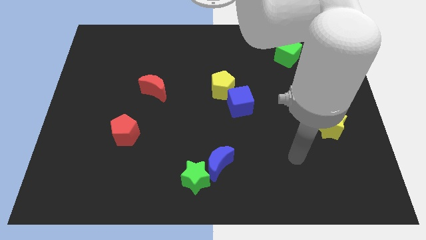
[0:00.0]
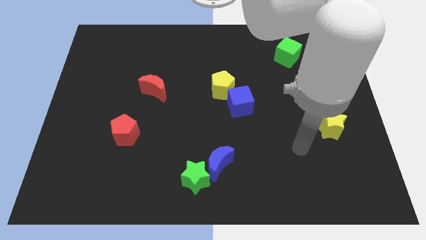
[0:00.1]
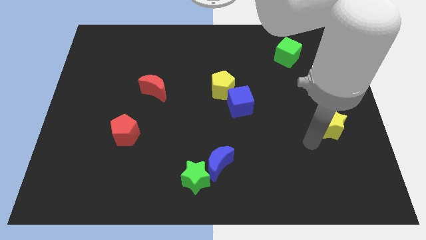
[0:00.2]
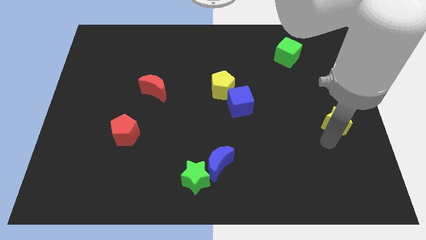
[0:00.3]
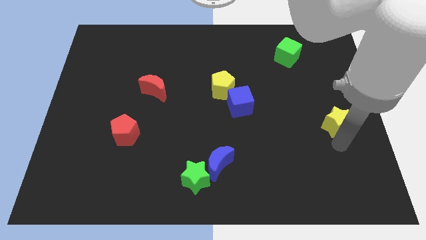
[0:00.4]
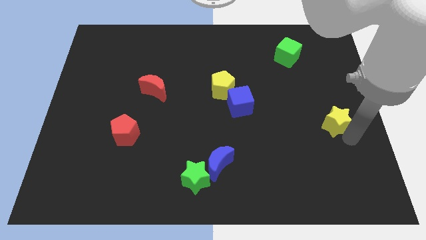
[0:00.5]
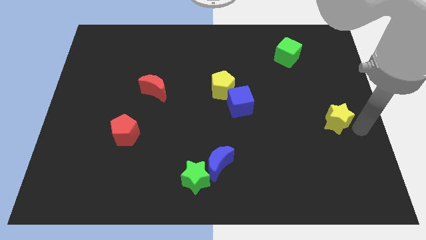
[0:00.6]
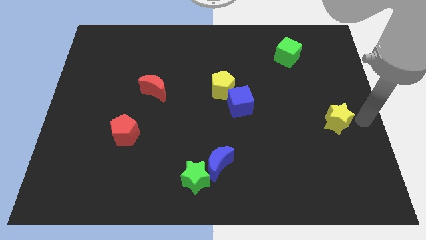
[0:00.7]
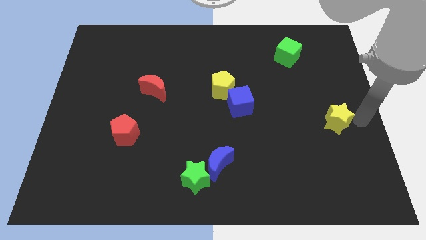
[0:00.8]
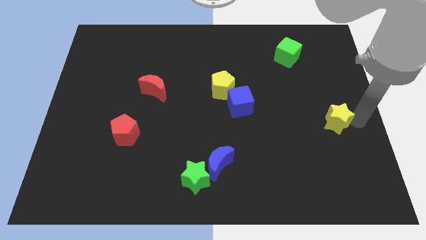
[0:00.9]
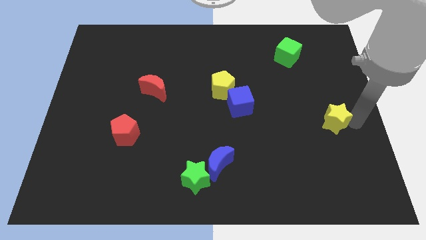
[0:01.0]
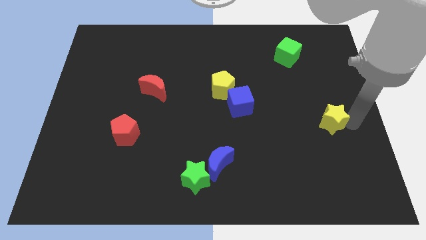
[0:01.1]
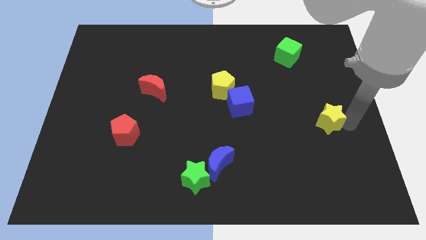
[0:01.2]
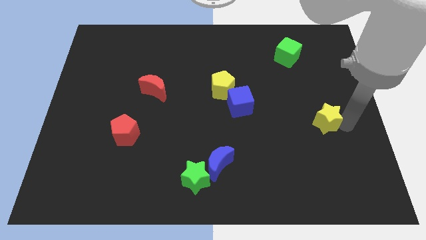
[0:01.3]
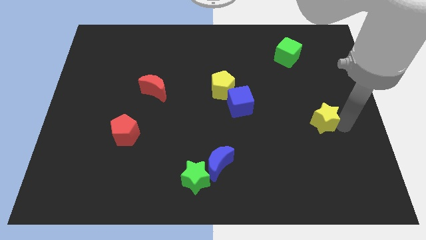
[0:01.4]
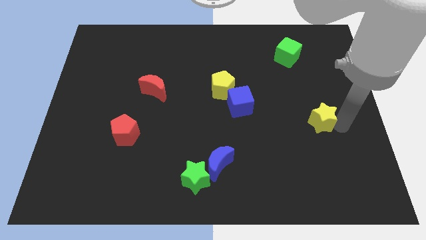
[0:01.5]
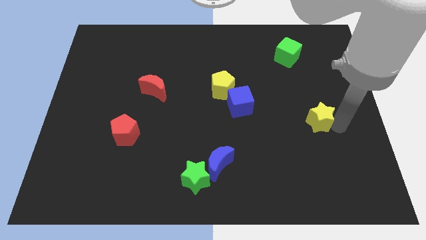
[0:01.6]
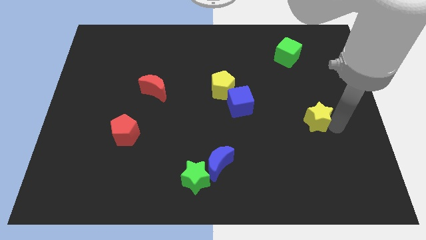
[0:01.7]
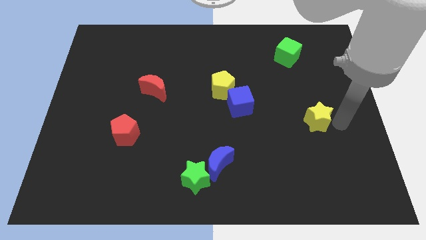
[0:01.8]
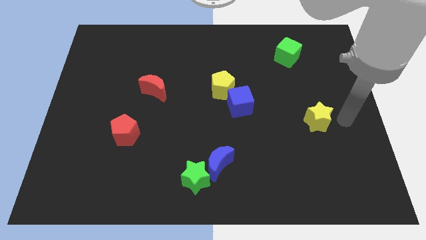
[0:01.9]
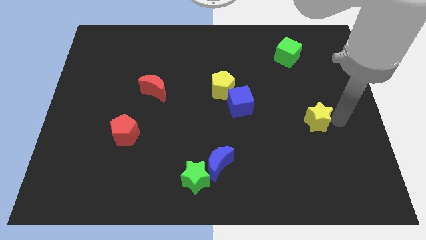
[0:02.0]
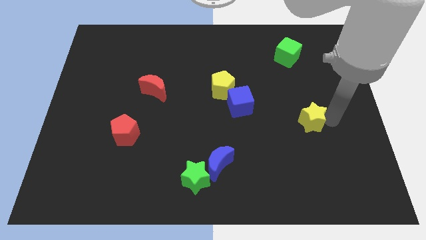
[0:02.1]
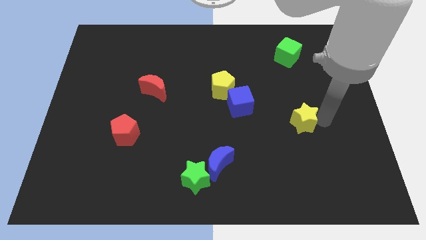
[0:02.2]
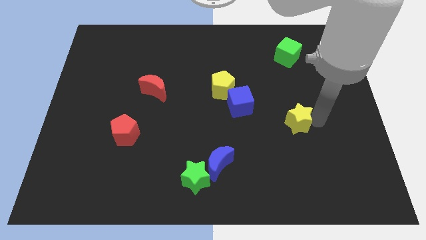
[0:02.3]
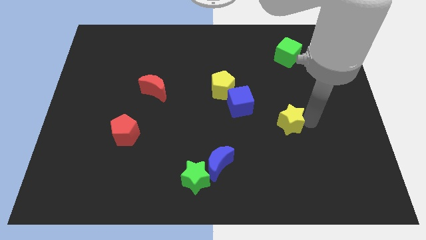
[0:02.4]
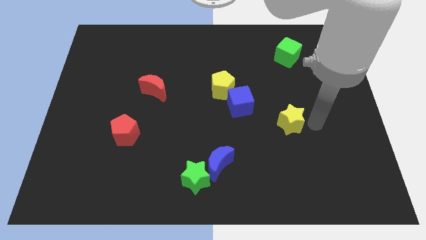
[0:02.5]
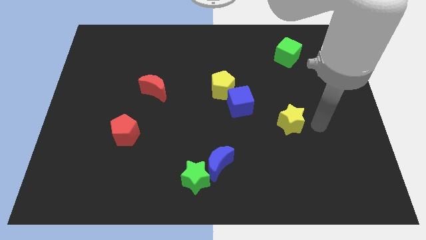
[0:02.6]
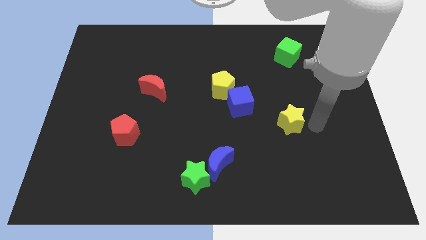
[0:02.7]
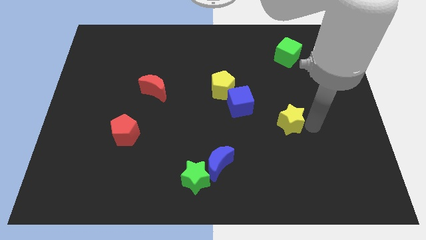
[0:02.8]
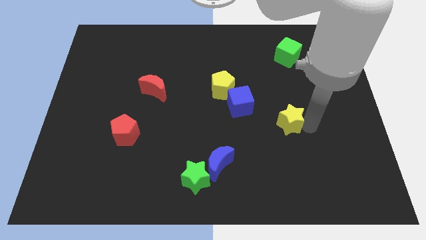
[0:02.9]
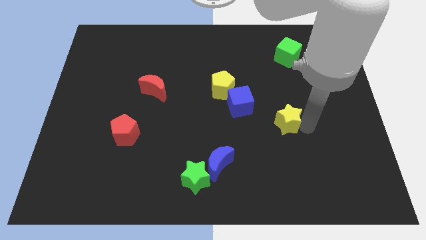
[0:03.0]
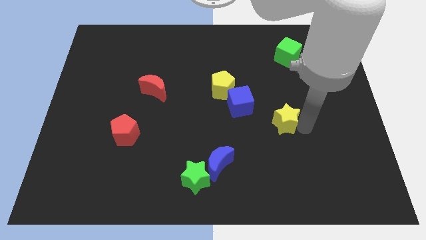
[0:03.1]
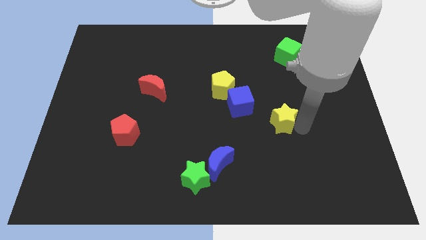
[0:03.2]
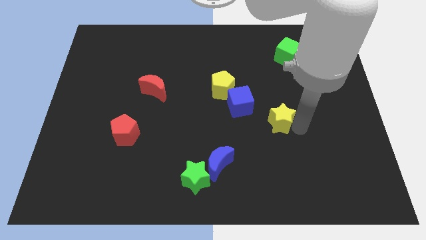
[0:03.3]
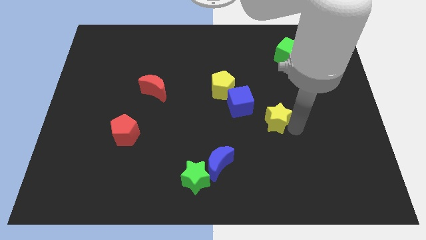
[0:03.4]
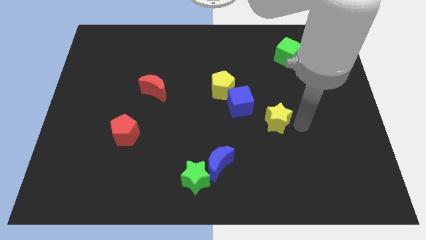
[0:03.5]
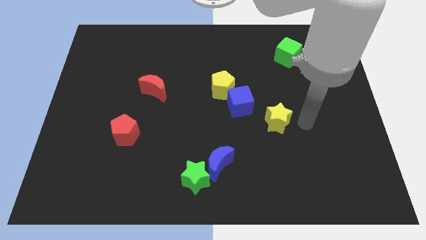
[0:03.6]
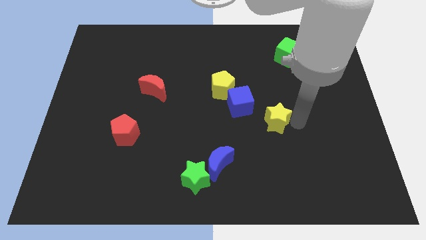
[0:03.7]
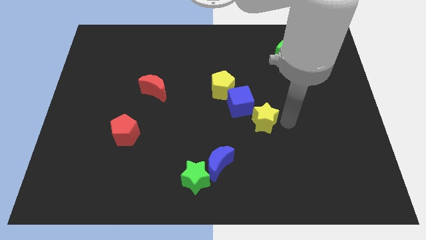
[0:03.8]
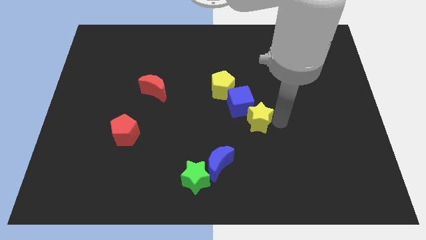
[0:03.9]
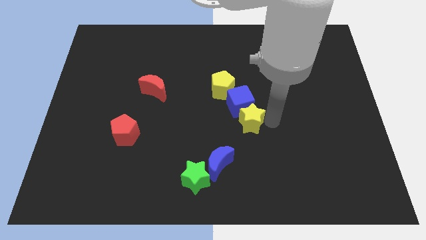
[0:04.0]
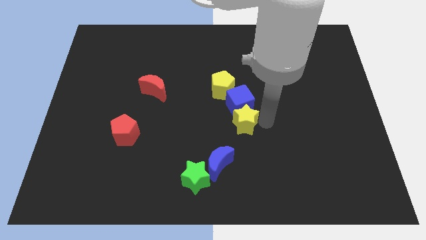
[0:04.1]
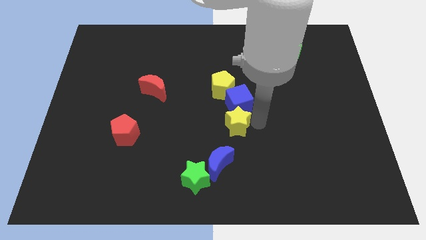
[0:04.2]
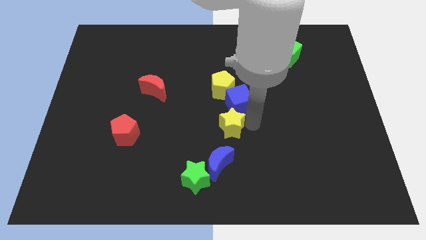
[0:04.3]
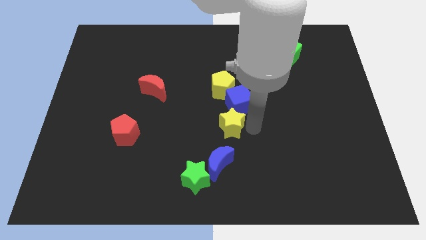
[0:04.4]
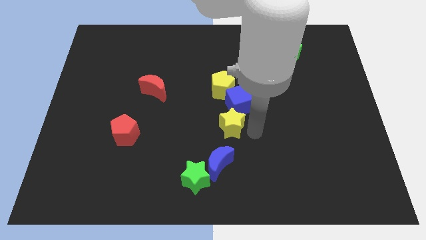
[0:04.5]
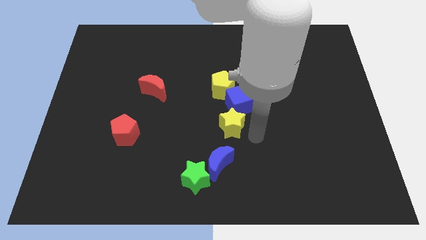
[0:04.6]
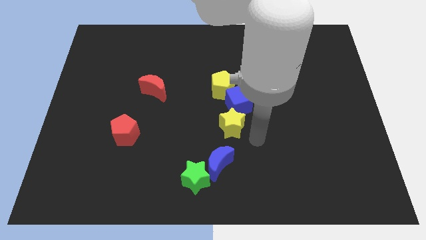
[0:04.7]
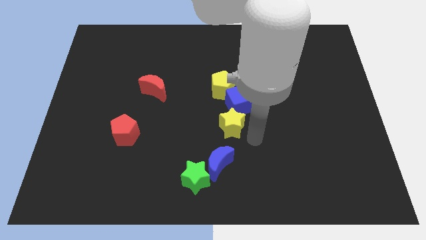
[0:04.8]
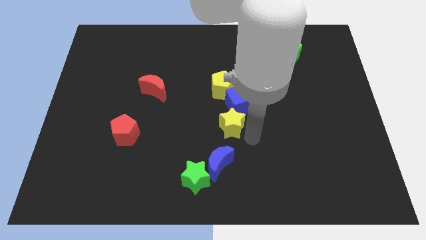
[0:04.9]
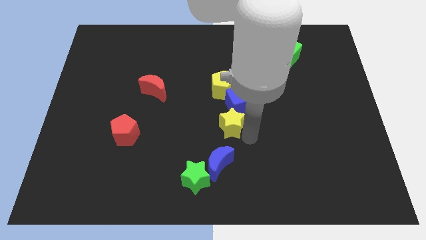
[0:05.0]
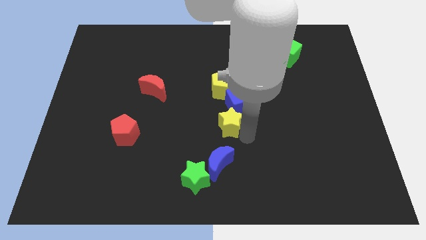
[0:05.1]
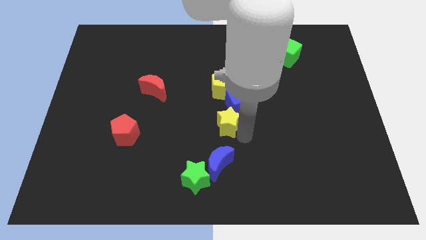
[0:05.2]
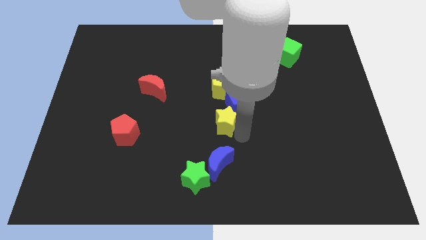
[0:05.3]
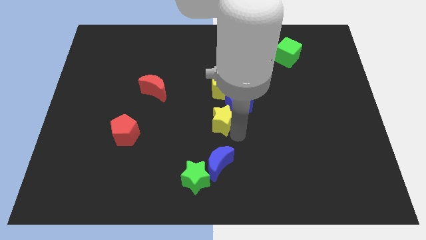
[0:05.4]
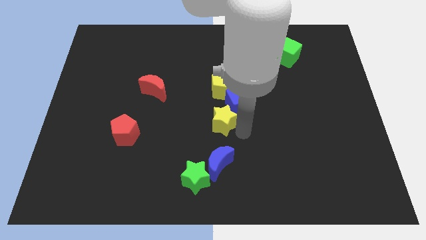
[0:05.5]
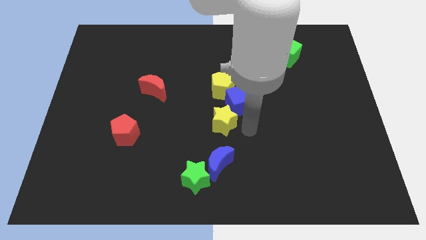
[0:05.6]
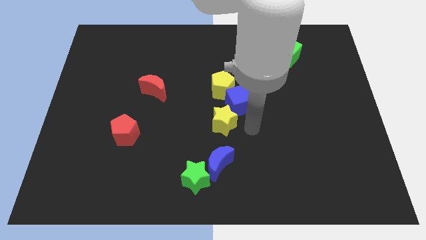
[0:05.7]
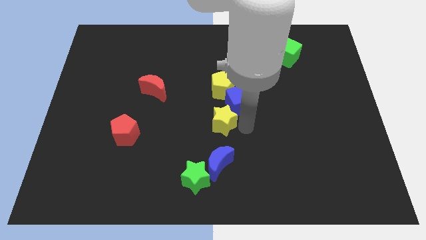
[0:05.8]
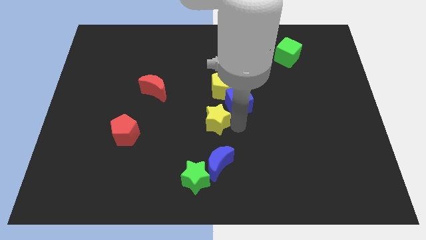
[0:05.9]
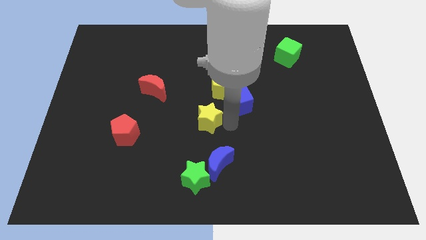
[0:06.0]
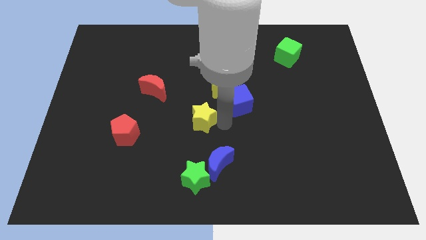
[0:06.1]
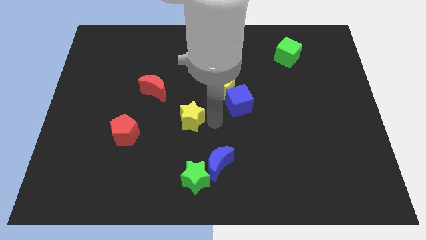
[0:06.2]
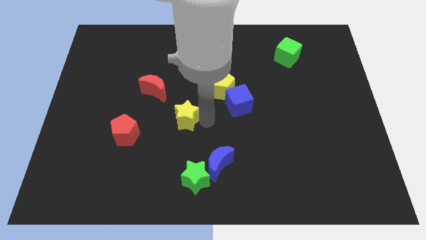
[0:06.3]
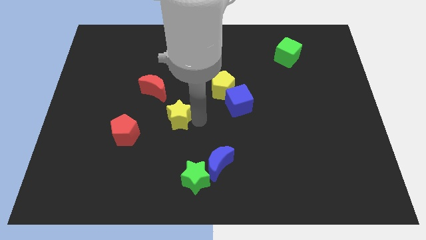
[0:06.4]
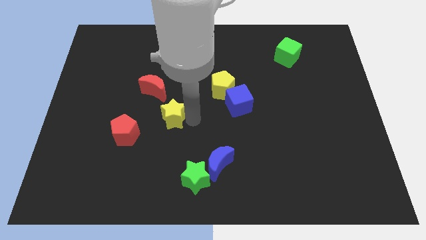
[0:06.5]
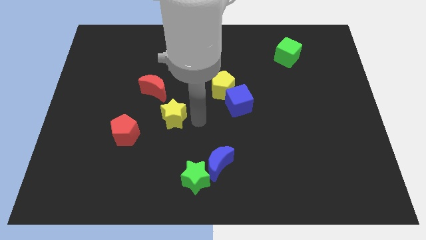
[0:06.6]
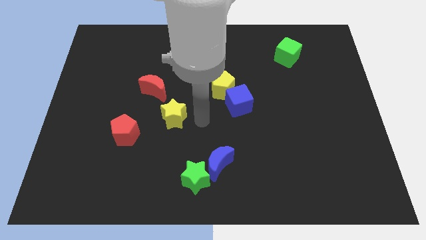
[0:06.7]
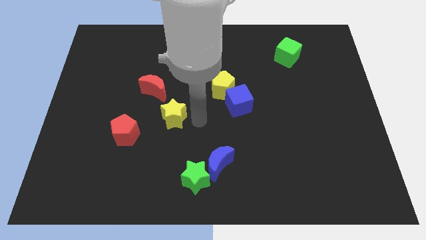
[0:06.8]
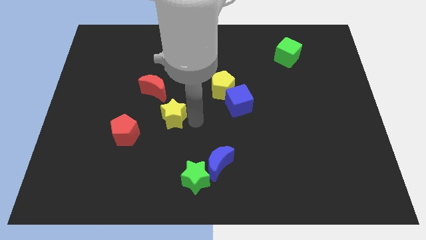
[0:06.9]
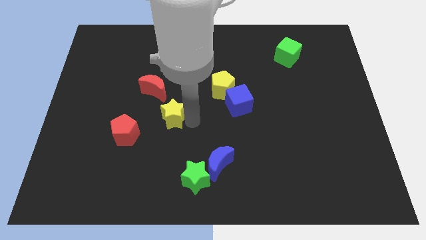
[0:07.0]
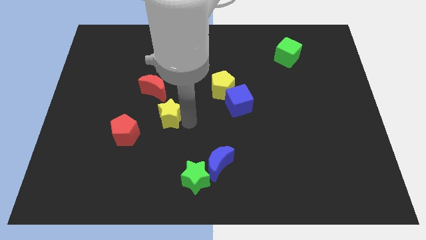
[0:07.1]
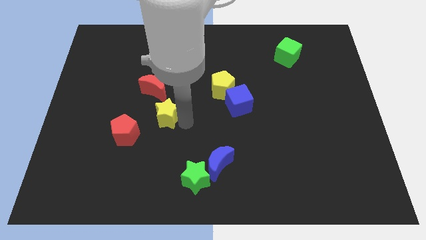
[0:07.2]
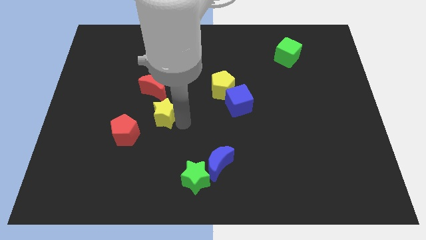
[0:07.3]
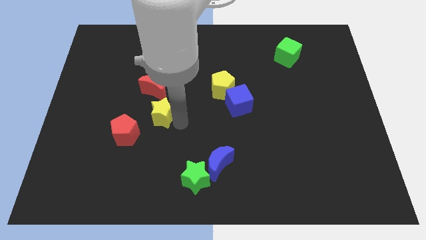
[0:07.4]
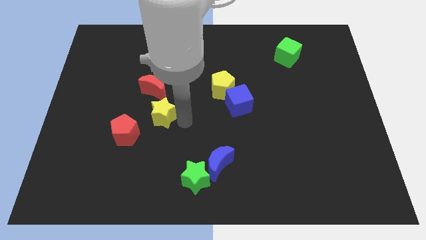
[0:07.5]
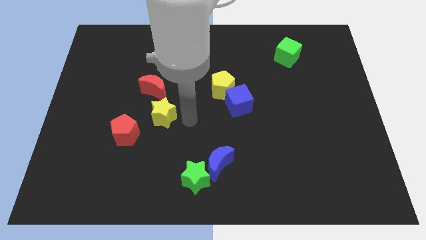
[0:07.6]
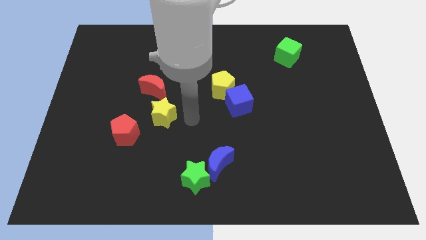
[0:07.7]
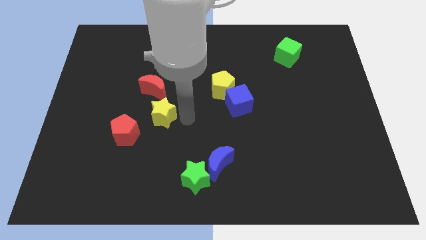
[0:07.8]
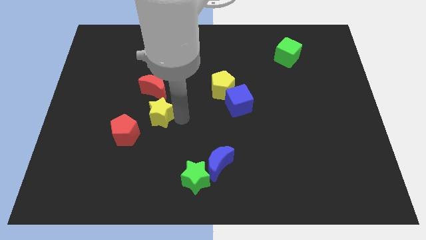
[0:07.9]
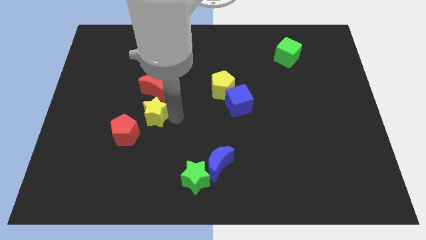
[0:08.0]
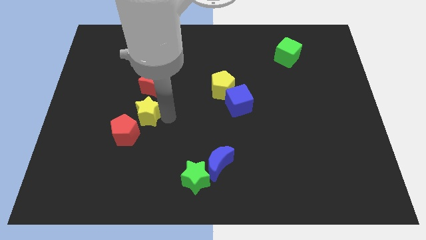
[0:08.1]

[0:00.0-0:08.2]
put the yellow star to the bottom left of the red moon
